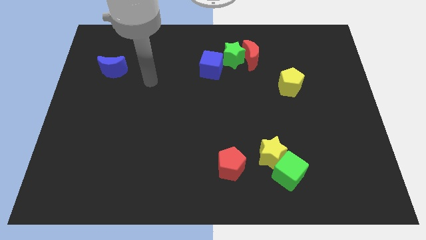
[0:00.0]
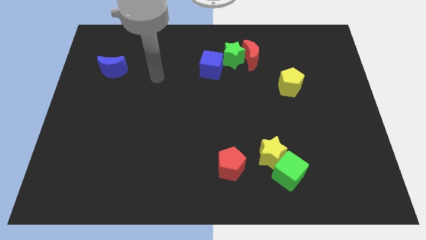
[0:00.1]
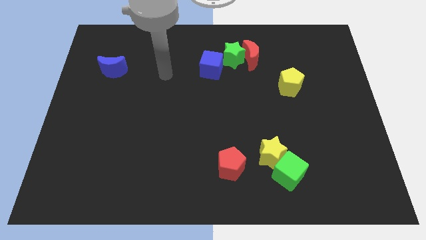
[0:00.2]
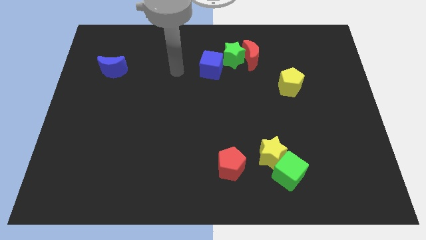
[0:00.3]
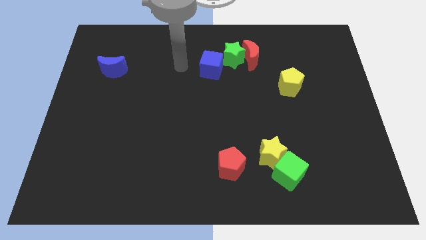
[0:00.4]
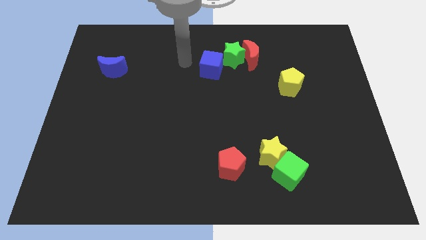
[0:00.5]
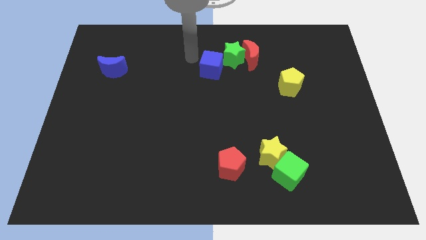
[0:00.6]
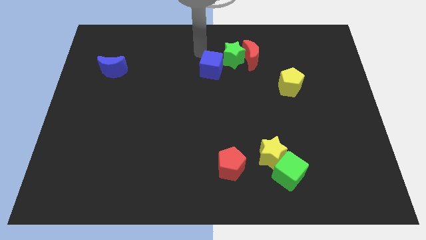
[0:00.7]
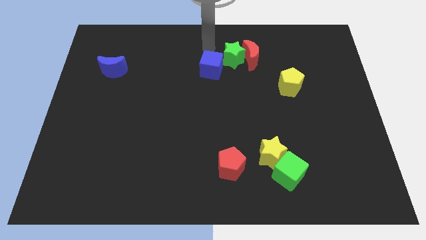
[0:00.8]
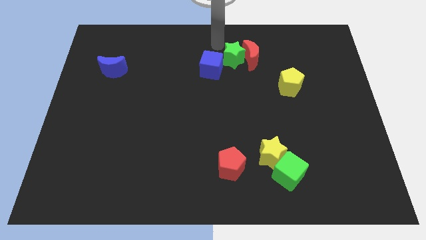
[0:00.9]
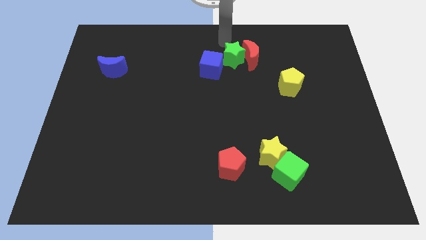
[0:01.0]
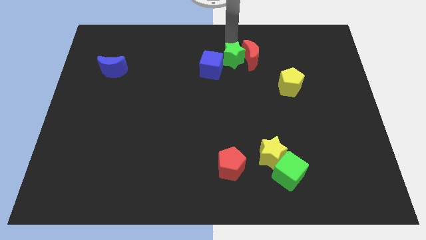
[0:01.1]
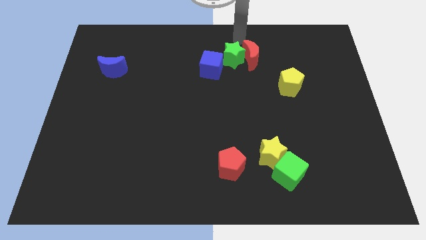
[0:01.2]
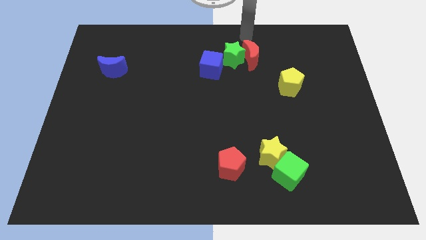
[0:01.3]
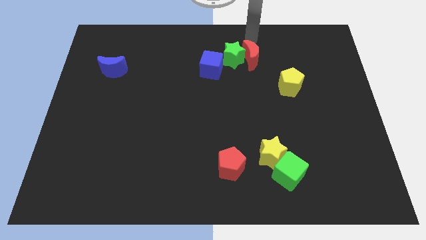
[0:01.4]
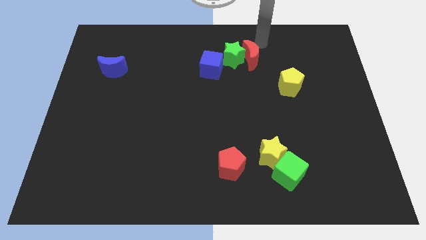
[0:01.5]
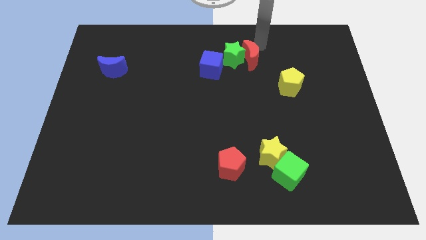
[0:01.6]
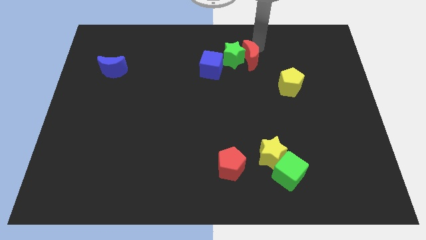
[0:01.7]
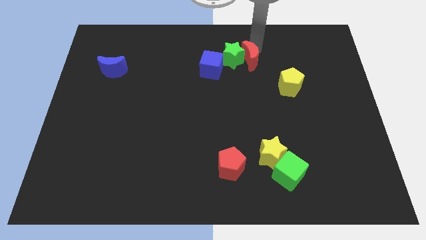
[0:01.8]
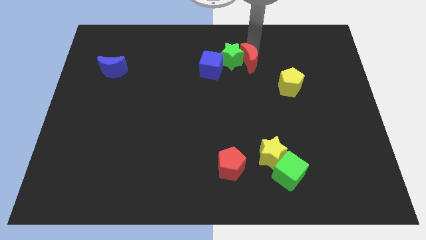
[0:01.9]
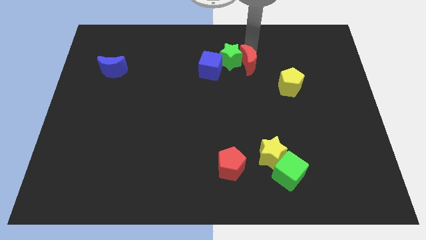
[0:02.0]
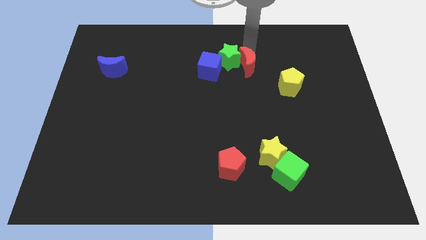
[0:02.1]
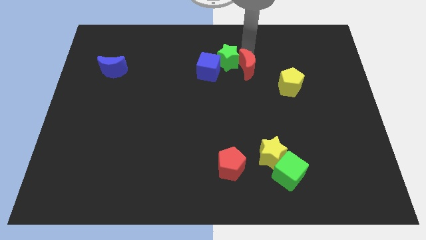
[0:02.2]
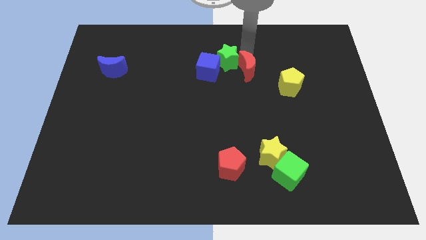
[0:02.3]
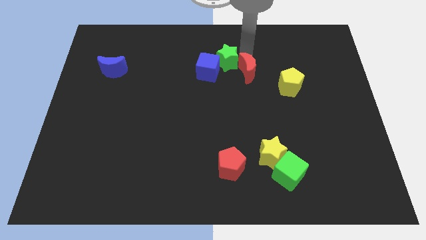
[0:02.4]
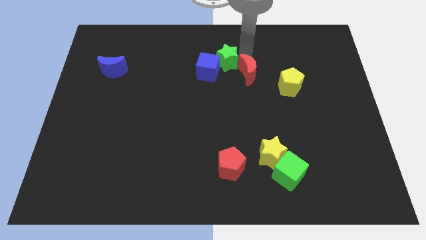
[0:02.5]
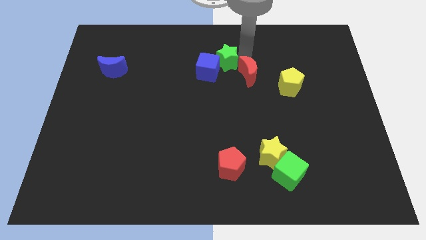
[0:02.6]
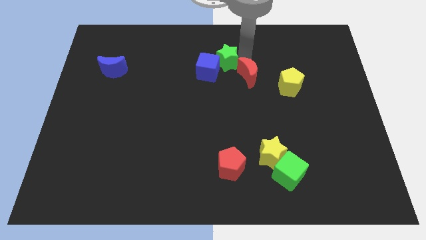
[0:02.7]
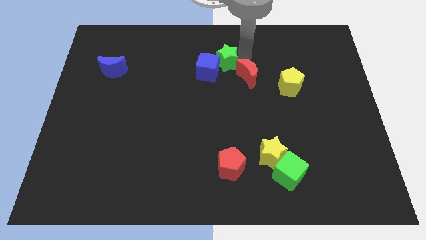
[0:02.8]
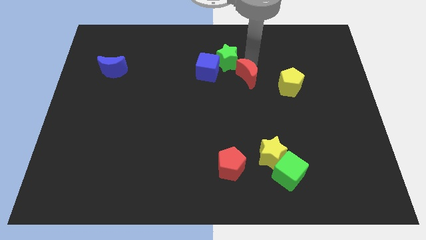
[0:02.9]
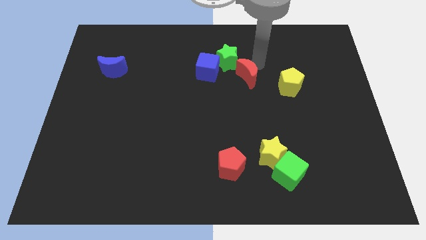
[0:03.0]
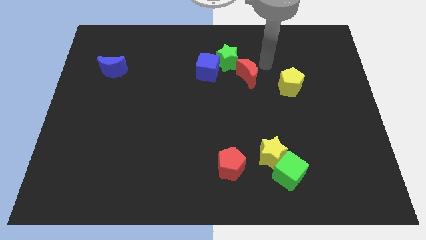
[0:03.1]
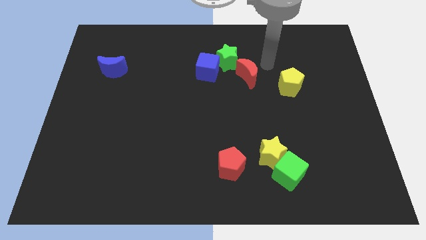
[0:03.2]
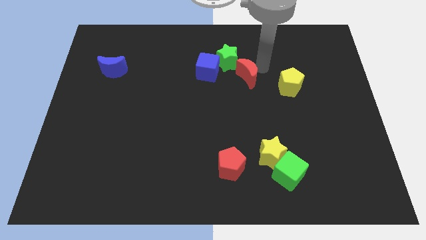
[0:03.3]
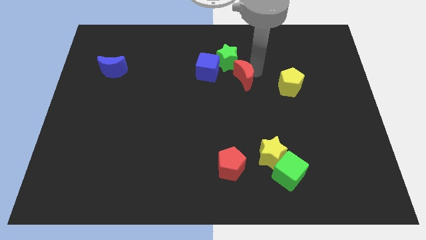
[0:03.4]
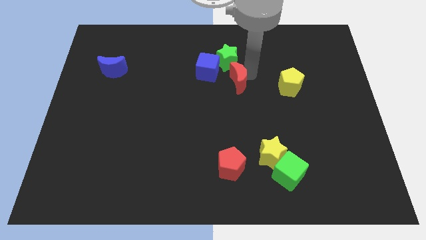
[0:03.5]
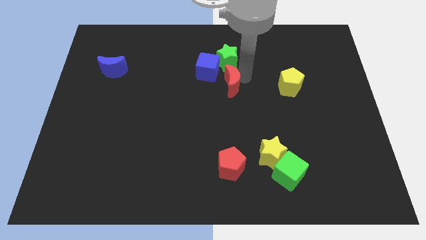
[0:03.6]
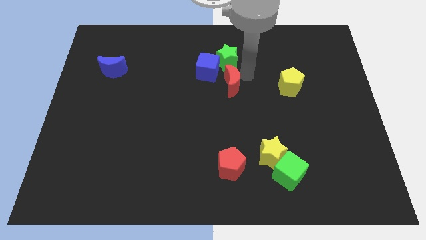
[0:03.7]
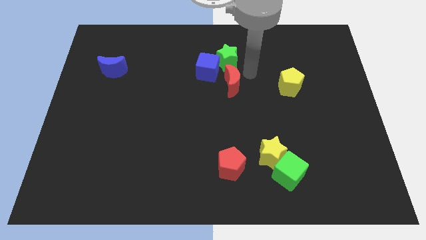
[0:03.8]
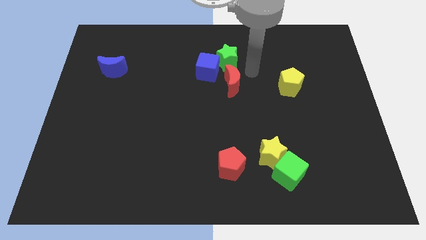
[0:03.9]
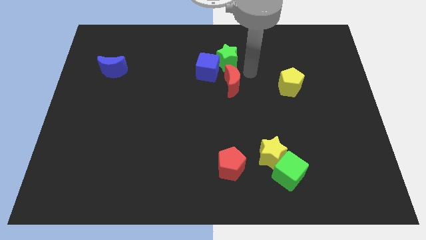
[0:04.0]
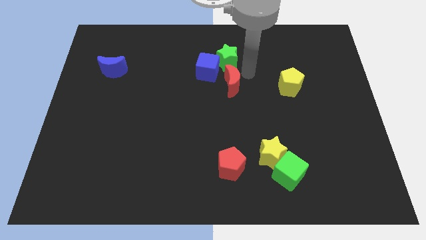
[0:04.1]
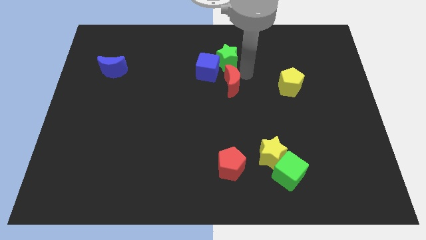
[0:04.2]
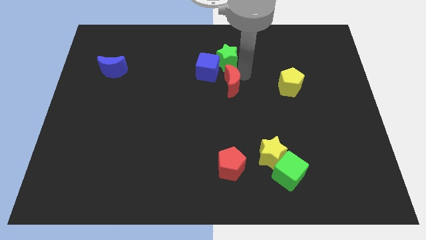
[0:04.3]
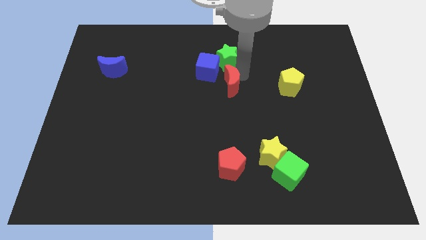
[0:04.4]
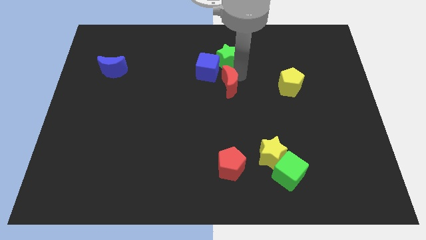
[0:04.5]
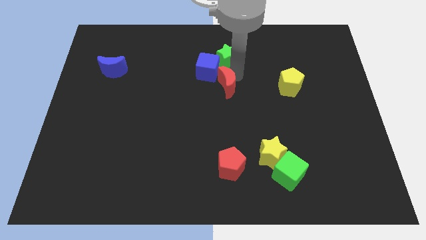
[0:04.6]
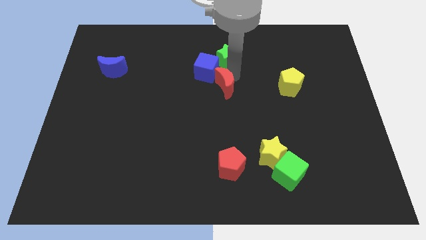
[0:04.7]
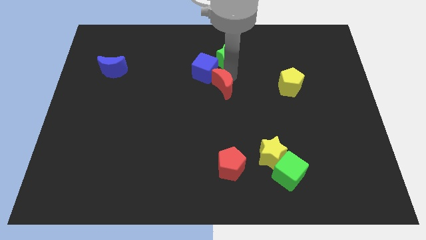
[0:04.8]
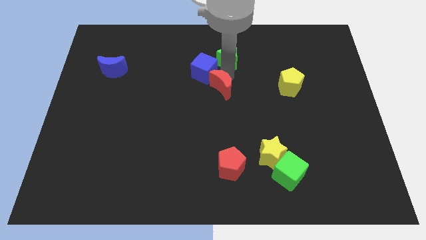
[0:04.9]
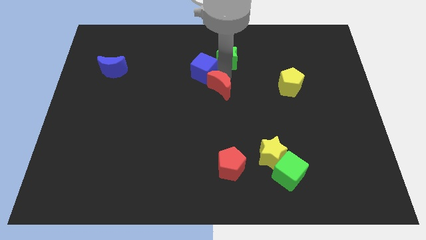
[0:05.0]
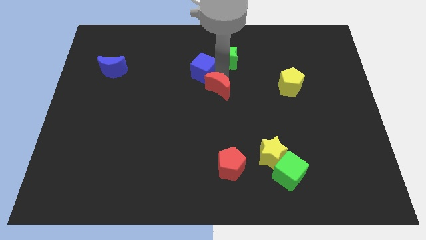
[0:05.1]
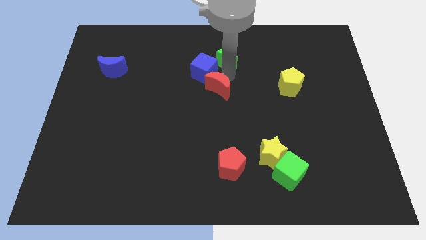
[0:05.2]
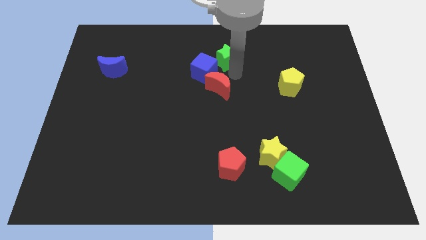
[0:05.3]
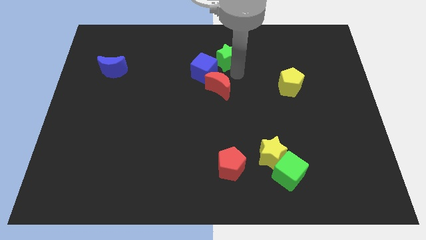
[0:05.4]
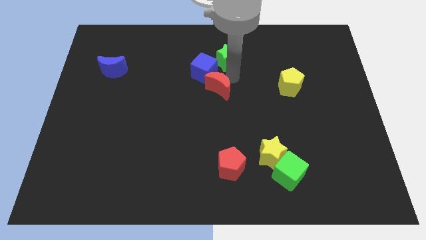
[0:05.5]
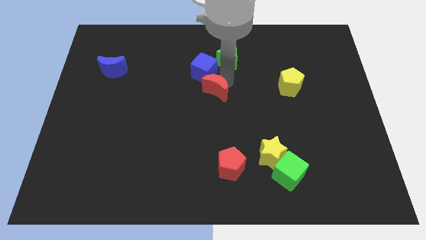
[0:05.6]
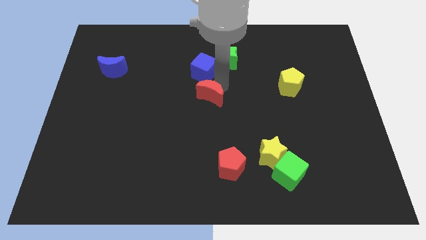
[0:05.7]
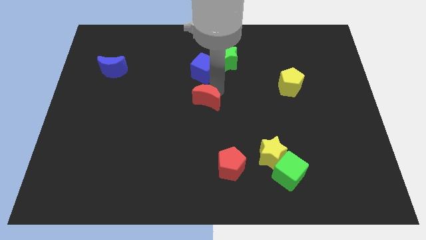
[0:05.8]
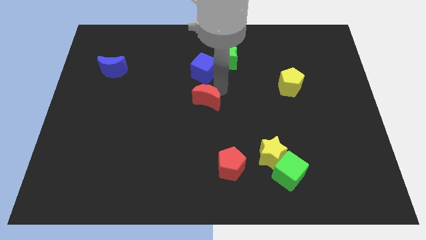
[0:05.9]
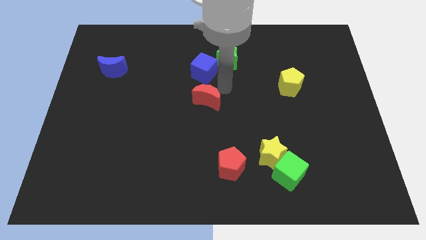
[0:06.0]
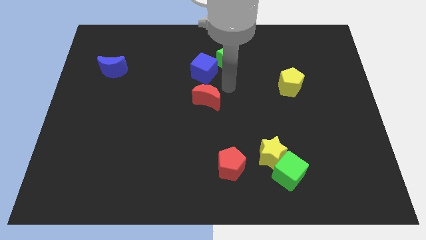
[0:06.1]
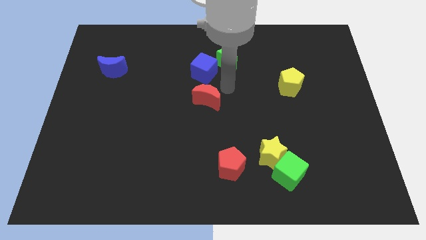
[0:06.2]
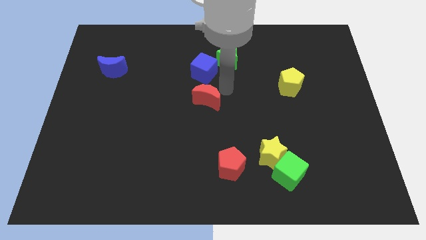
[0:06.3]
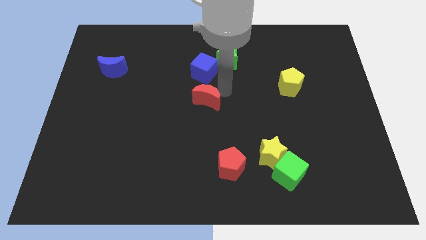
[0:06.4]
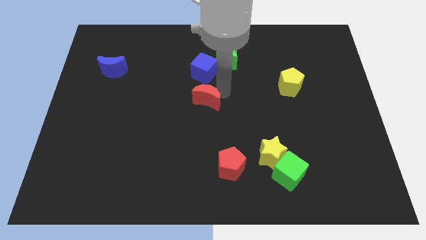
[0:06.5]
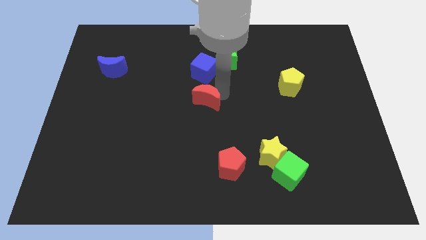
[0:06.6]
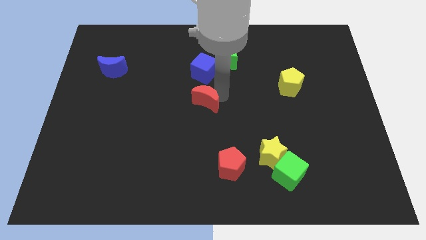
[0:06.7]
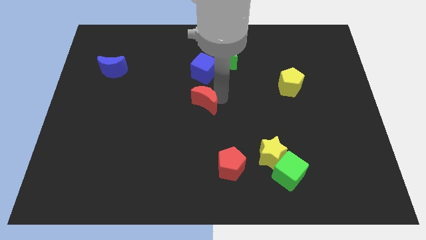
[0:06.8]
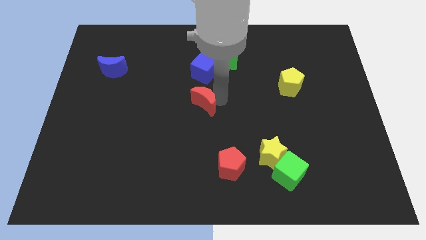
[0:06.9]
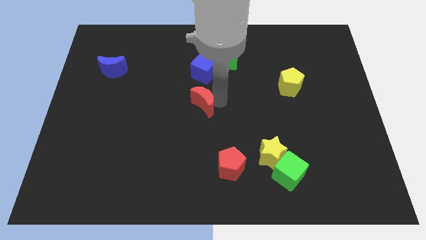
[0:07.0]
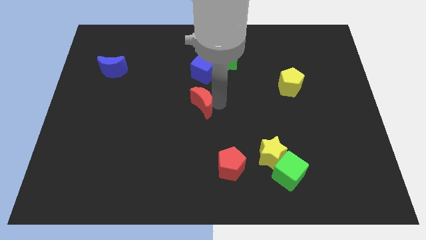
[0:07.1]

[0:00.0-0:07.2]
move the red moon downwards and then left

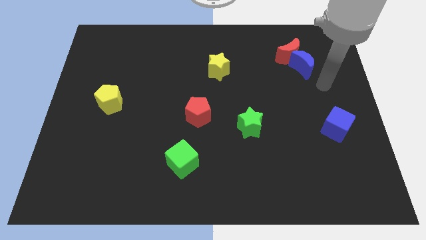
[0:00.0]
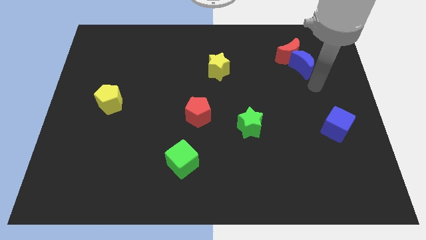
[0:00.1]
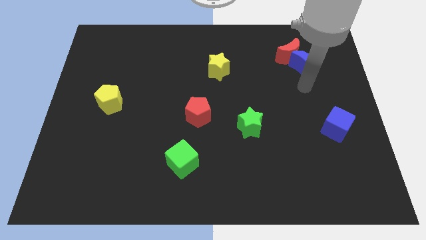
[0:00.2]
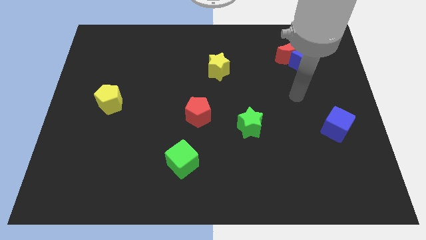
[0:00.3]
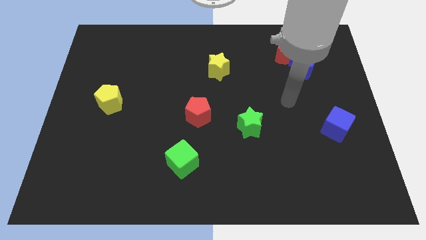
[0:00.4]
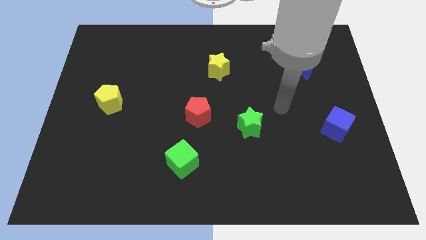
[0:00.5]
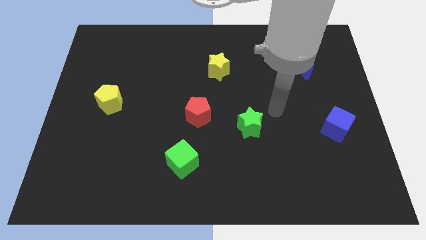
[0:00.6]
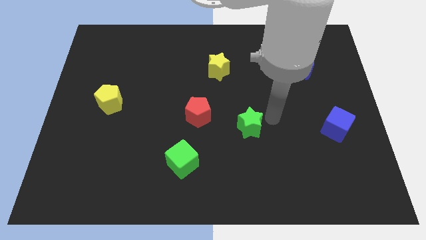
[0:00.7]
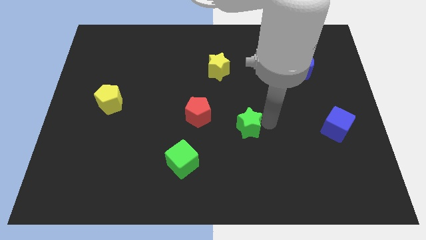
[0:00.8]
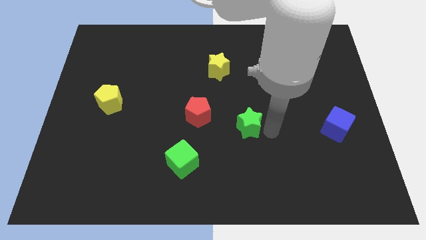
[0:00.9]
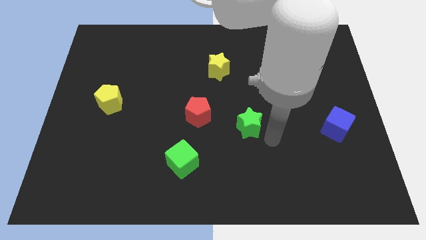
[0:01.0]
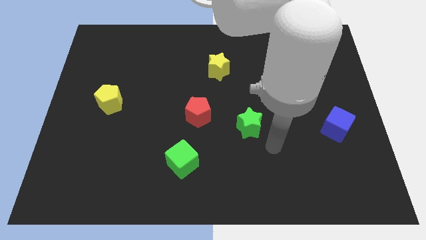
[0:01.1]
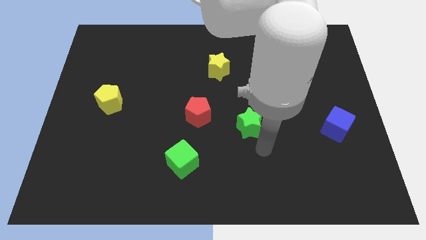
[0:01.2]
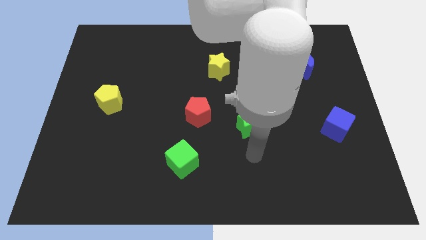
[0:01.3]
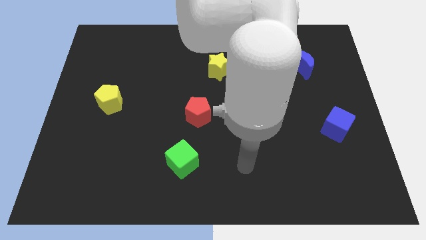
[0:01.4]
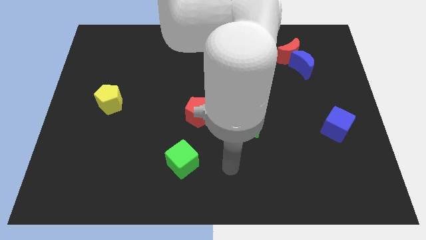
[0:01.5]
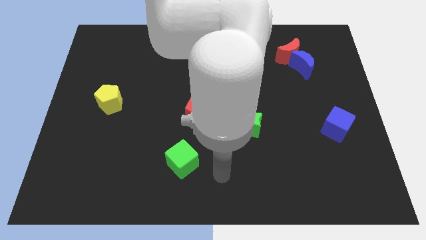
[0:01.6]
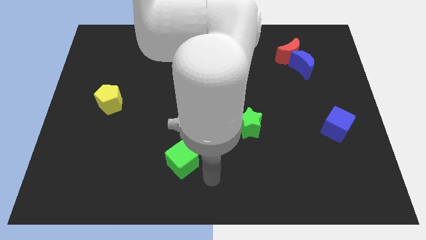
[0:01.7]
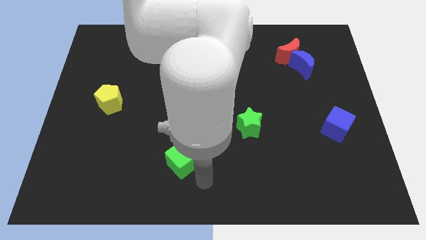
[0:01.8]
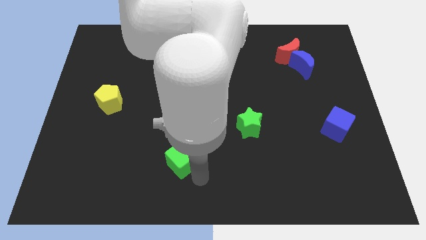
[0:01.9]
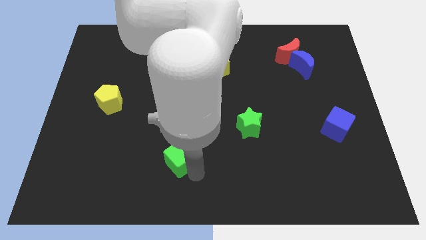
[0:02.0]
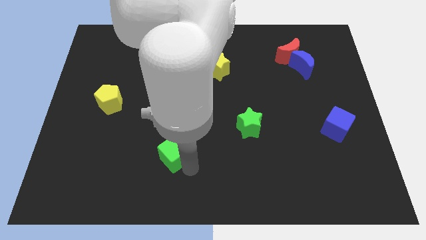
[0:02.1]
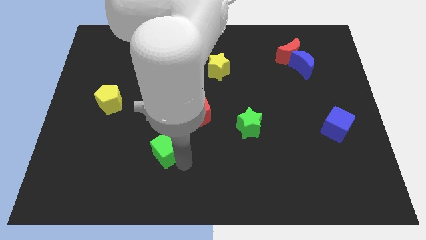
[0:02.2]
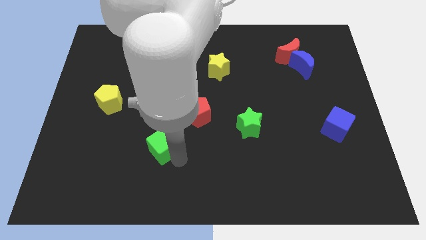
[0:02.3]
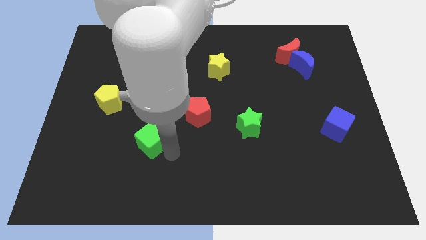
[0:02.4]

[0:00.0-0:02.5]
move the green cube a little bit upwards and then to the left
